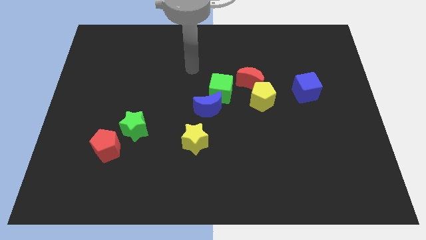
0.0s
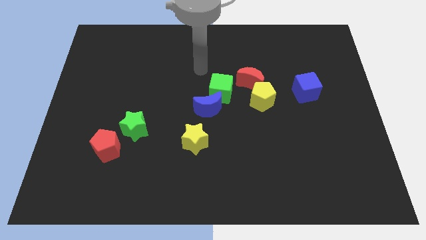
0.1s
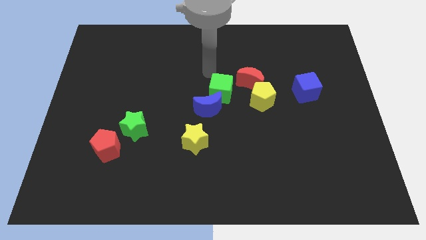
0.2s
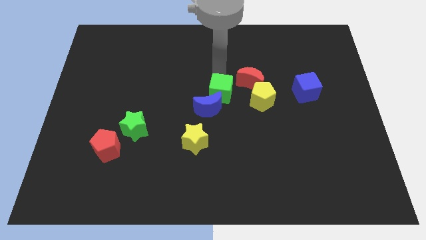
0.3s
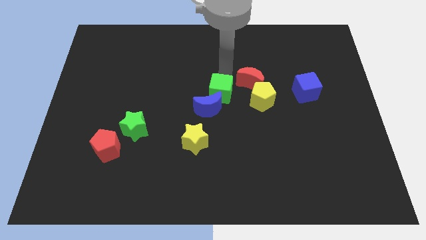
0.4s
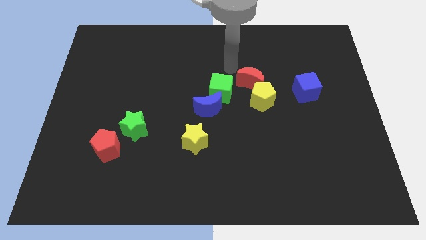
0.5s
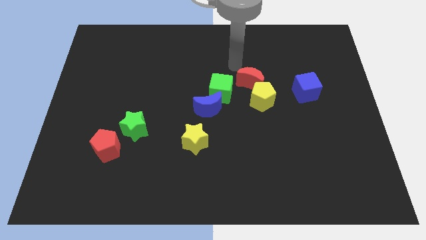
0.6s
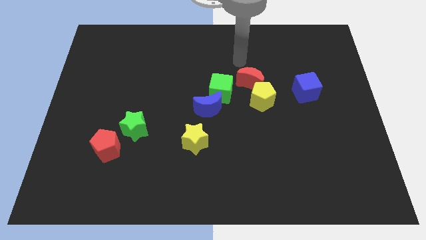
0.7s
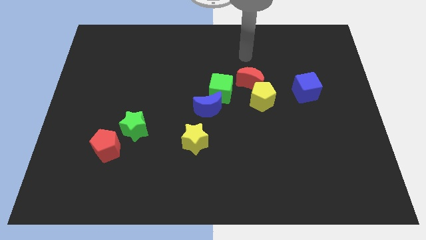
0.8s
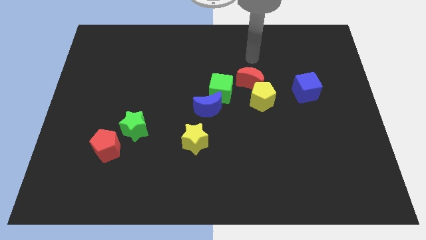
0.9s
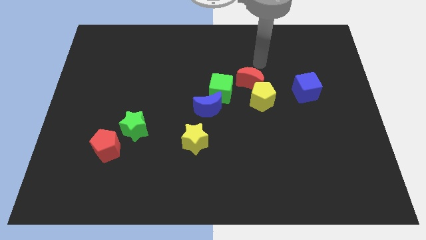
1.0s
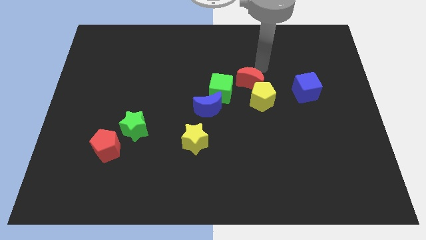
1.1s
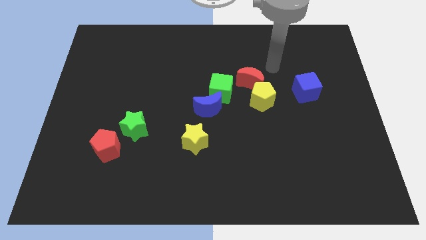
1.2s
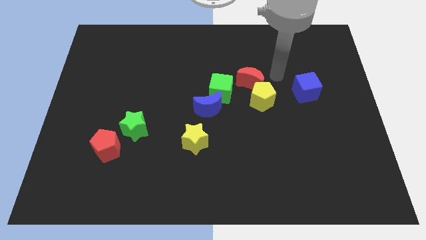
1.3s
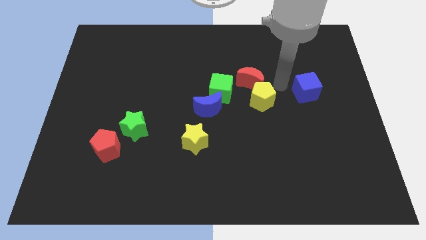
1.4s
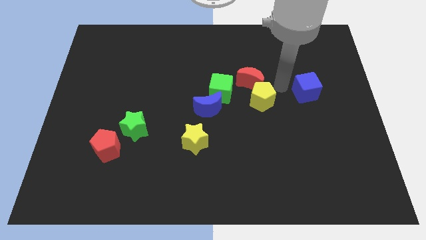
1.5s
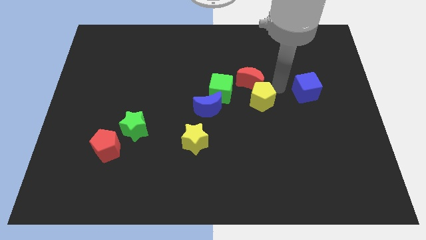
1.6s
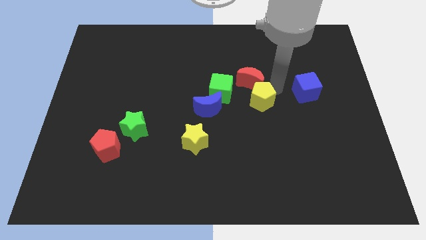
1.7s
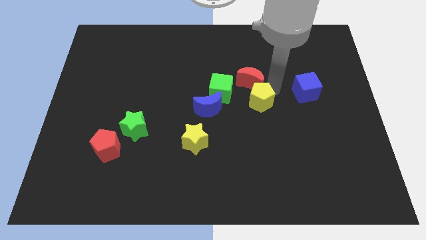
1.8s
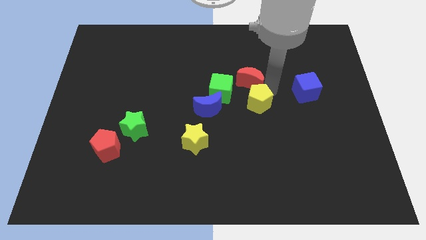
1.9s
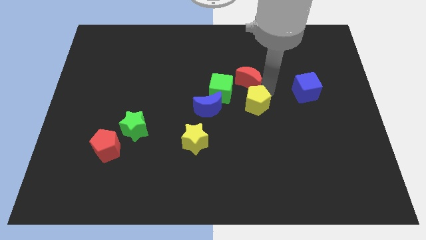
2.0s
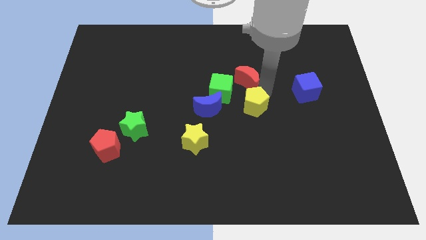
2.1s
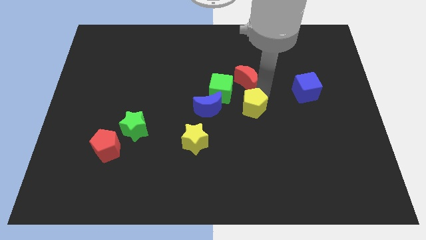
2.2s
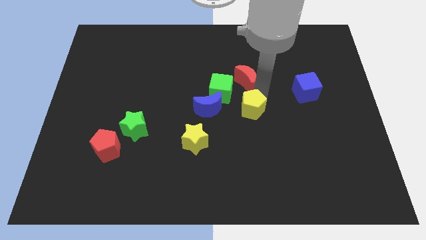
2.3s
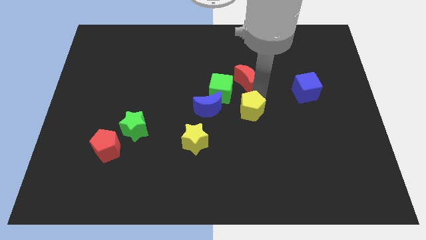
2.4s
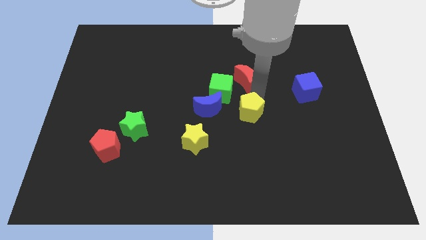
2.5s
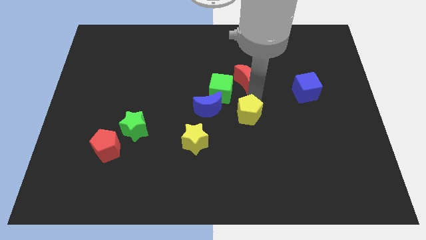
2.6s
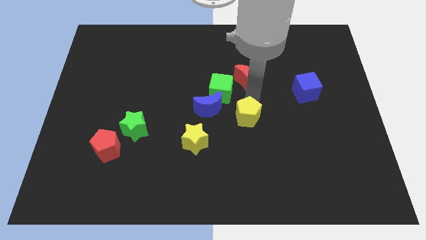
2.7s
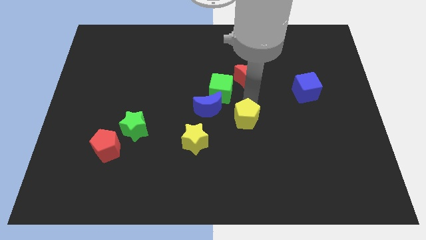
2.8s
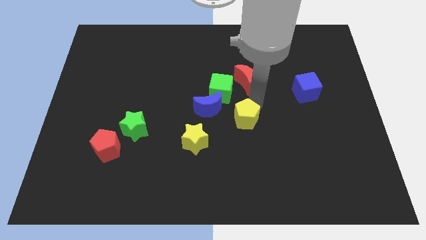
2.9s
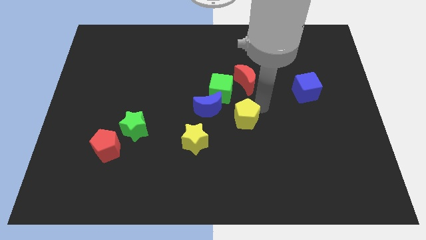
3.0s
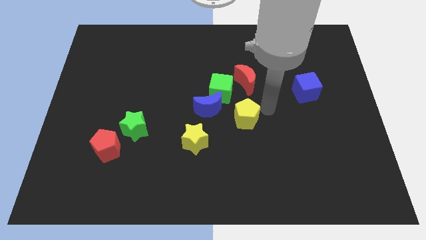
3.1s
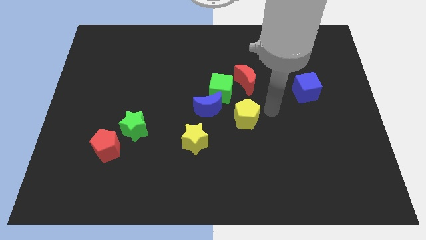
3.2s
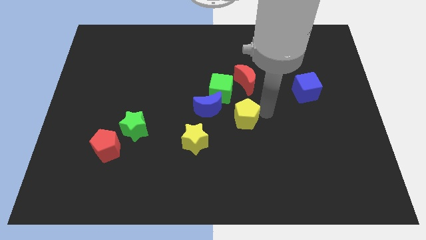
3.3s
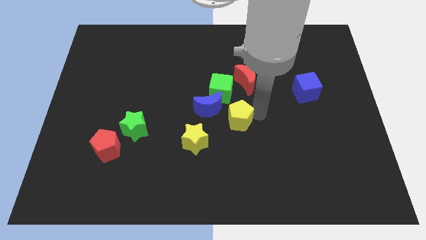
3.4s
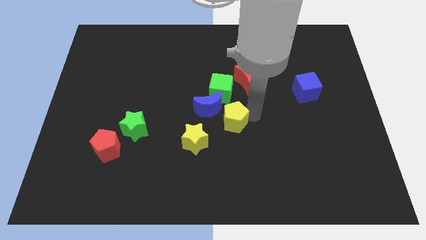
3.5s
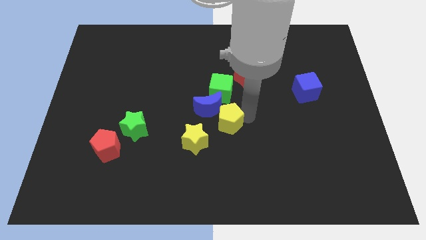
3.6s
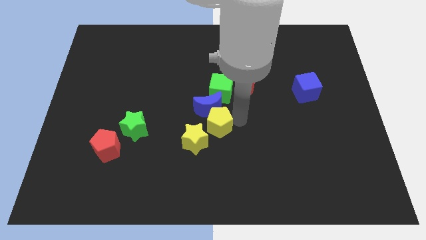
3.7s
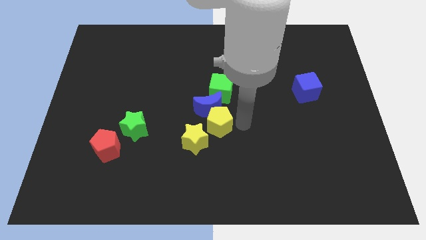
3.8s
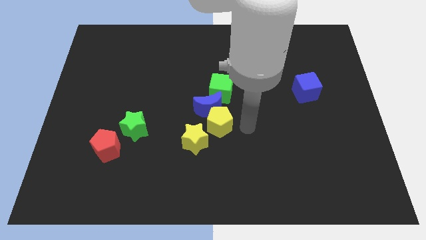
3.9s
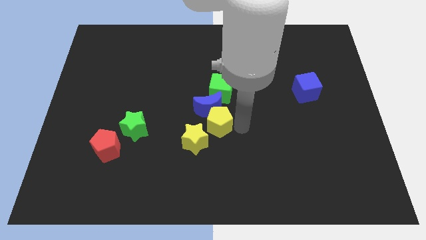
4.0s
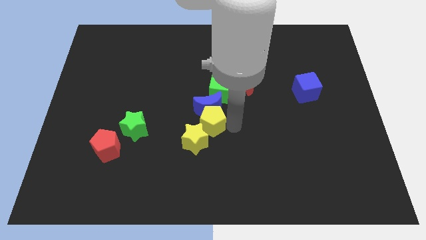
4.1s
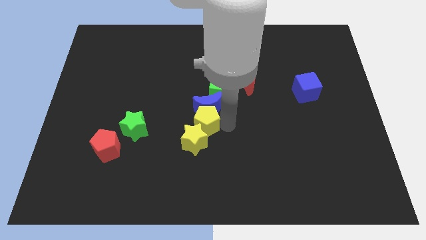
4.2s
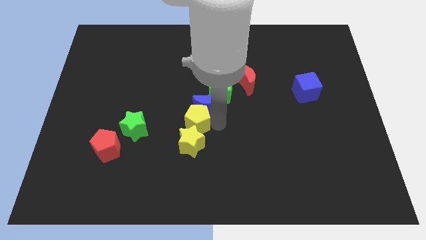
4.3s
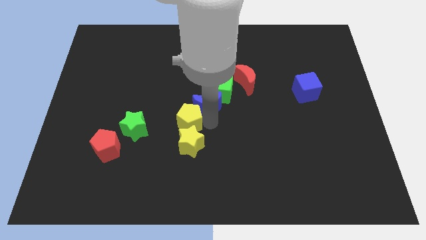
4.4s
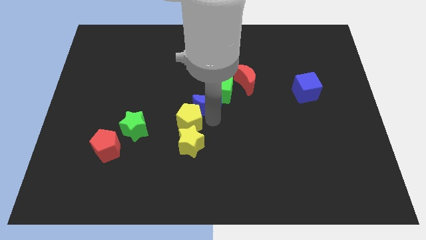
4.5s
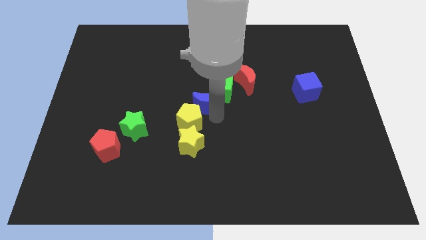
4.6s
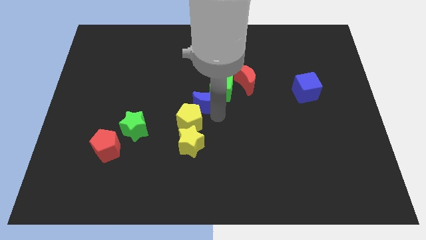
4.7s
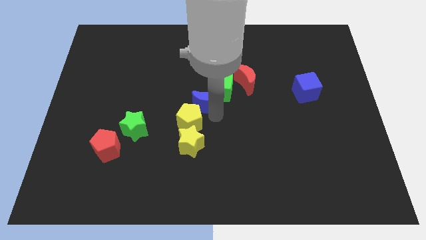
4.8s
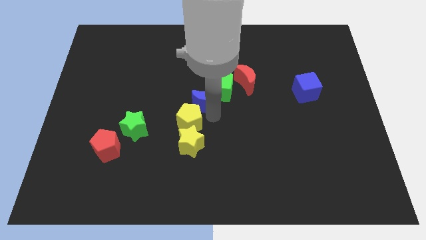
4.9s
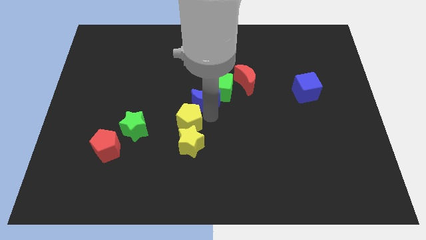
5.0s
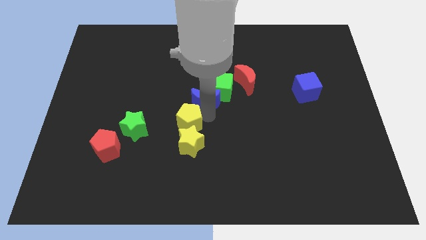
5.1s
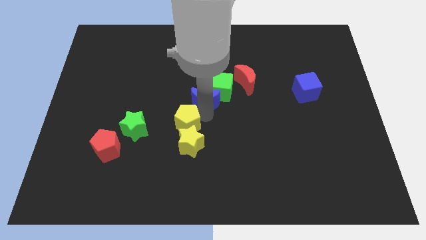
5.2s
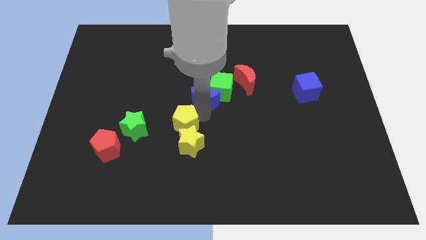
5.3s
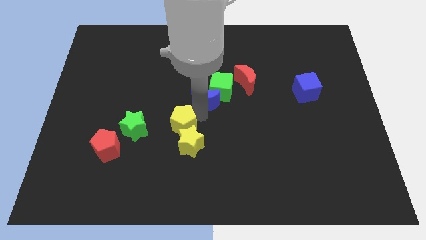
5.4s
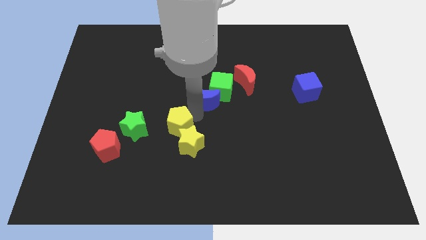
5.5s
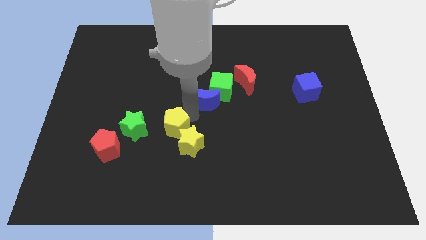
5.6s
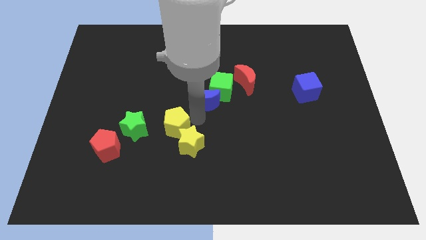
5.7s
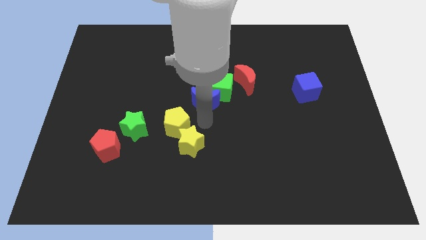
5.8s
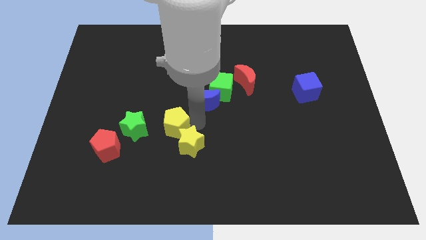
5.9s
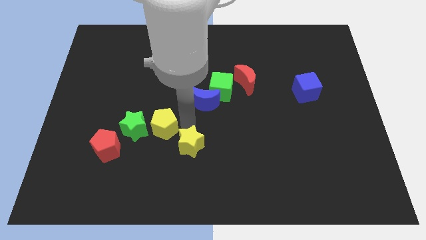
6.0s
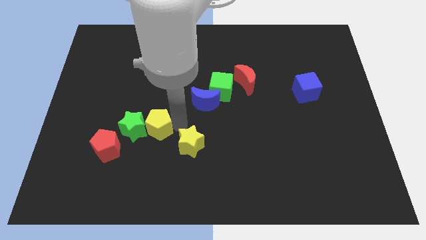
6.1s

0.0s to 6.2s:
move the yellow pentagon towards the green star
